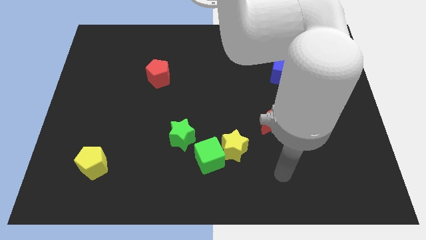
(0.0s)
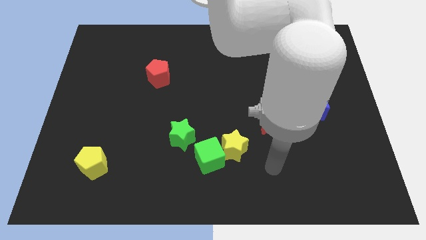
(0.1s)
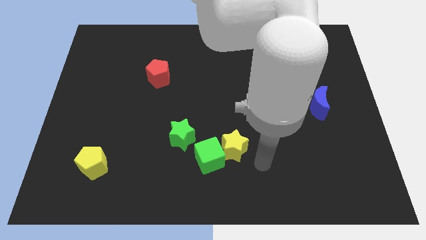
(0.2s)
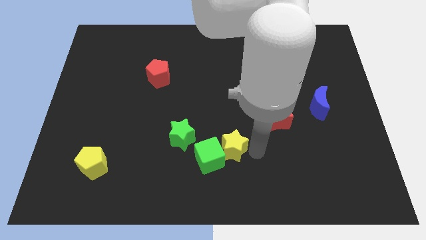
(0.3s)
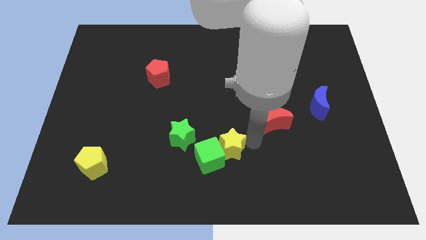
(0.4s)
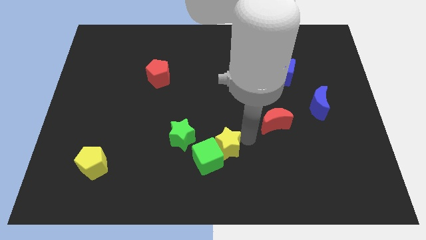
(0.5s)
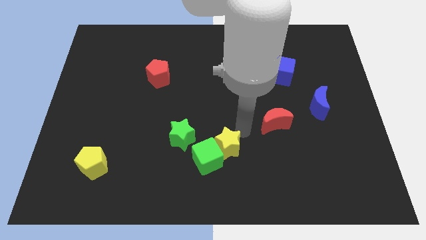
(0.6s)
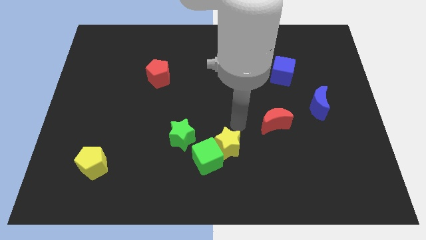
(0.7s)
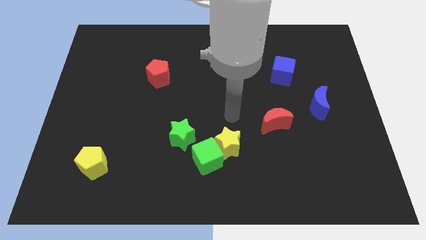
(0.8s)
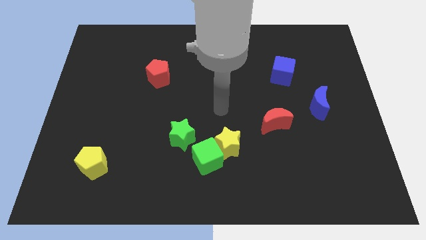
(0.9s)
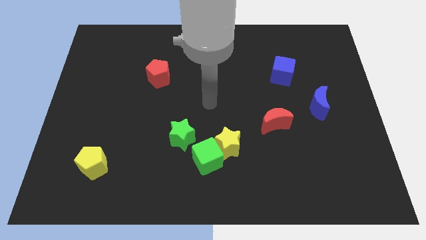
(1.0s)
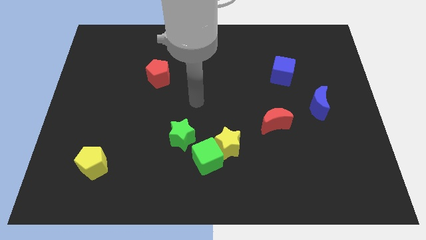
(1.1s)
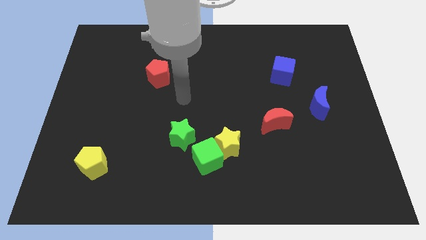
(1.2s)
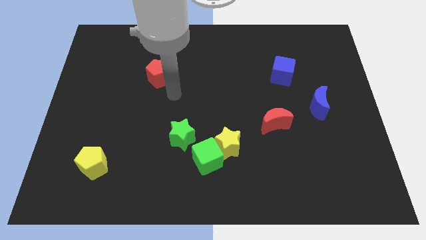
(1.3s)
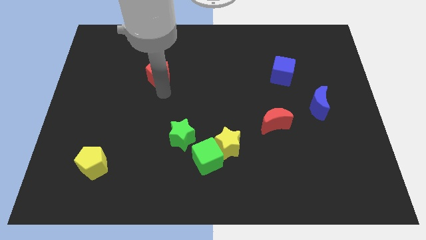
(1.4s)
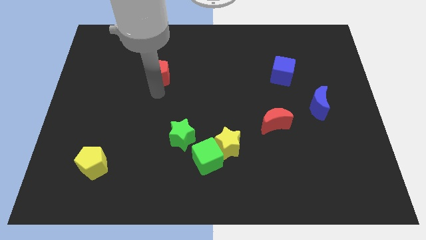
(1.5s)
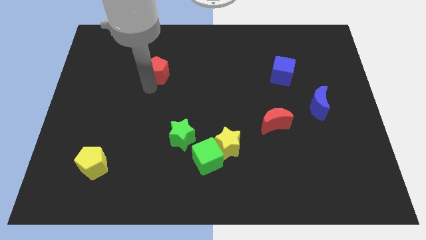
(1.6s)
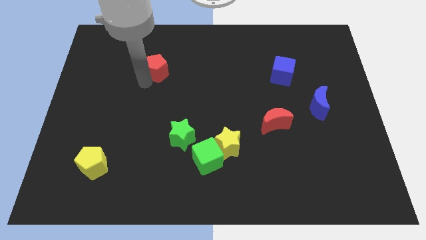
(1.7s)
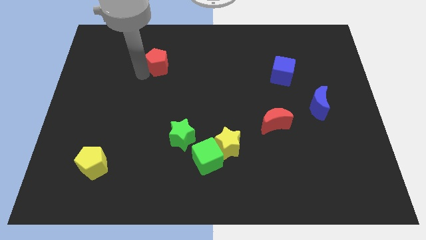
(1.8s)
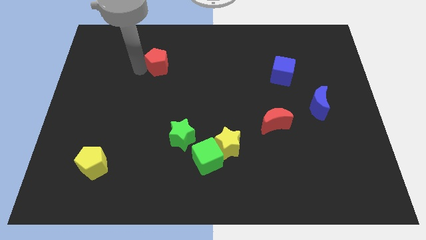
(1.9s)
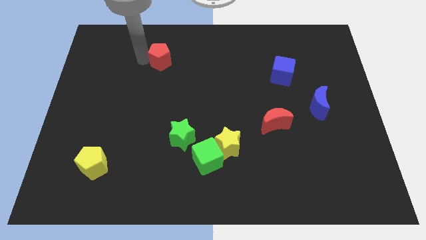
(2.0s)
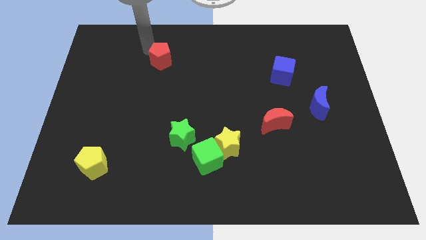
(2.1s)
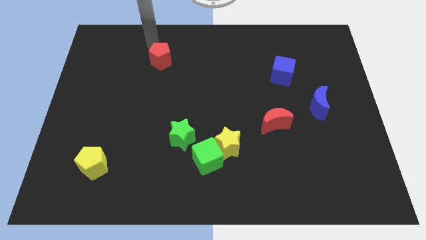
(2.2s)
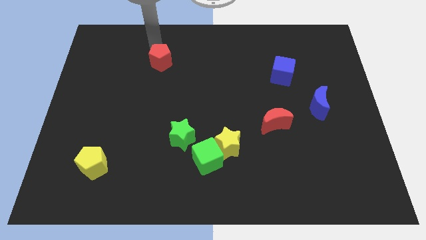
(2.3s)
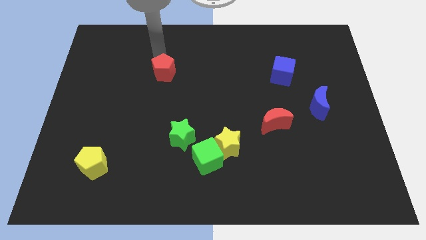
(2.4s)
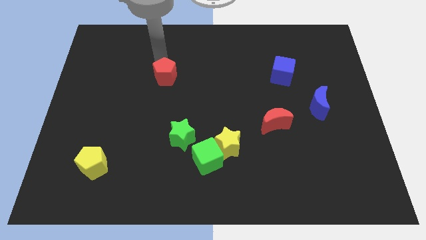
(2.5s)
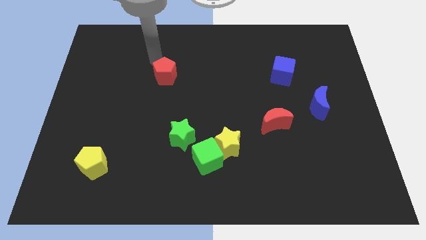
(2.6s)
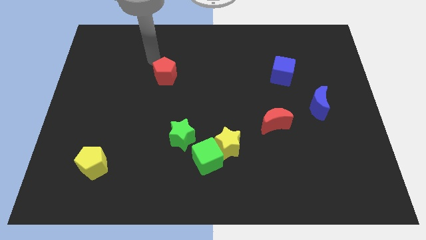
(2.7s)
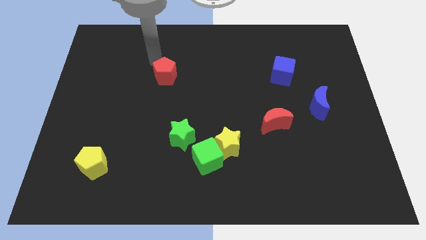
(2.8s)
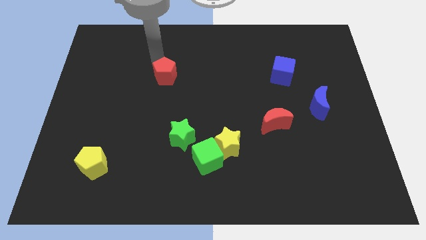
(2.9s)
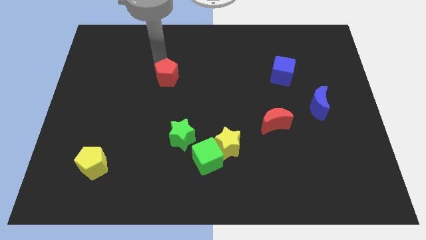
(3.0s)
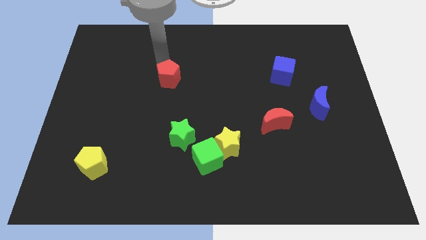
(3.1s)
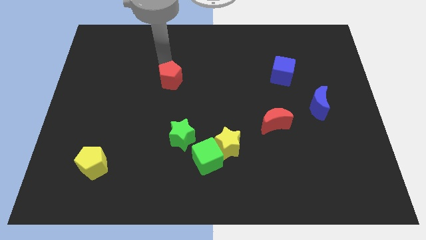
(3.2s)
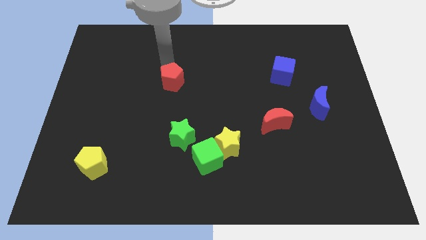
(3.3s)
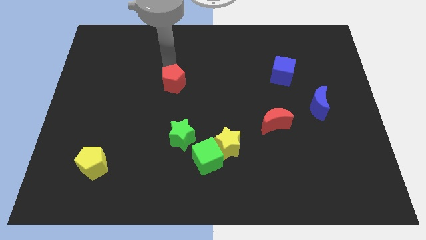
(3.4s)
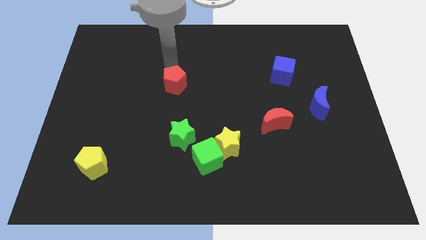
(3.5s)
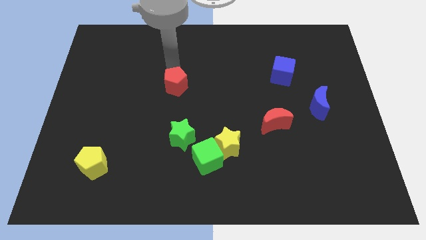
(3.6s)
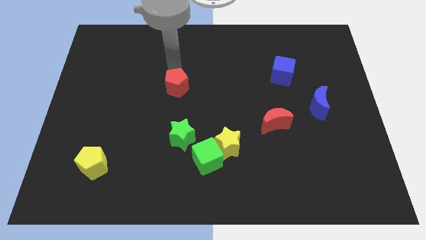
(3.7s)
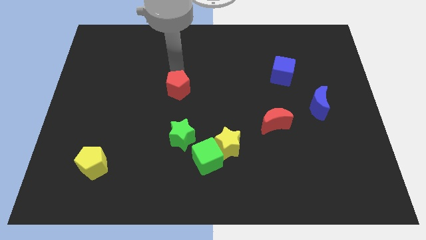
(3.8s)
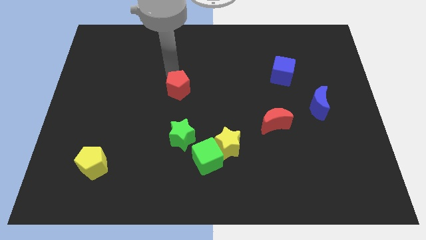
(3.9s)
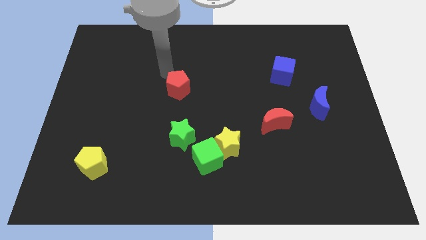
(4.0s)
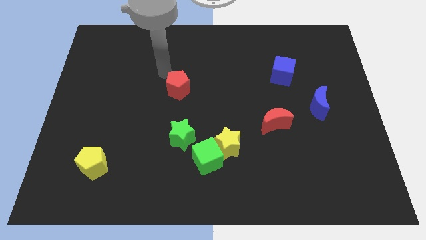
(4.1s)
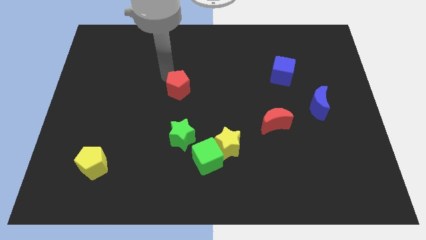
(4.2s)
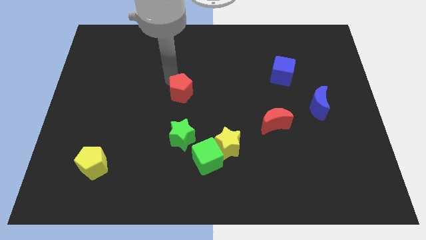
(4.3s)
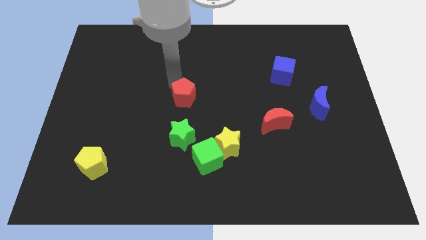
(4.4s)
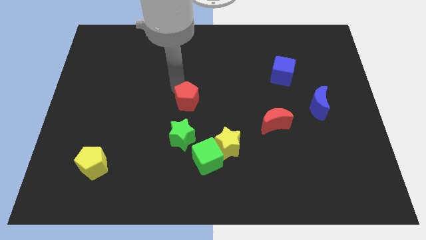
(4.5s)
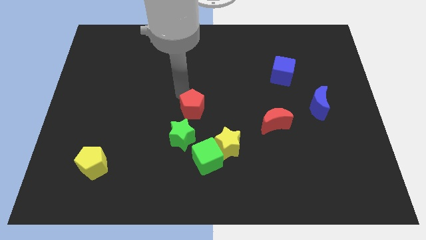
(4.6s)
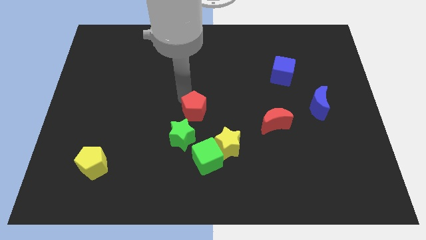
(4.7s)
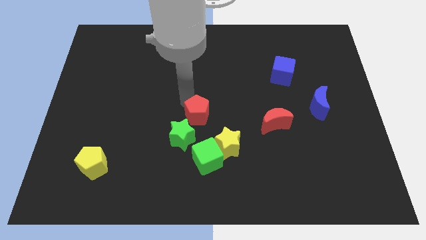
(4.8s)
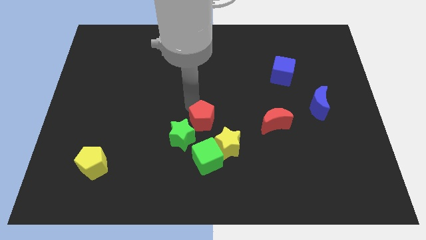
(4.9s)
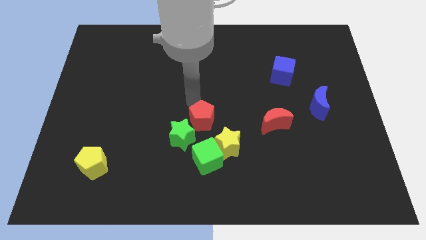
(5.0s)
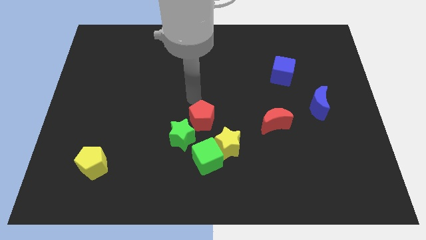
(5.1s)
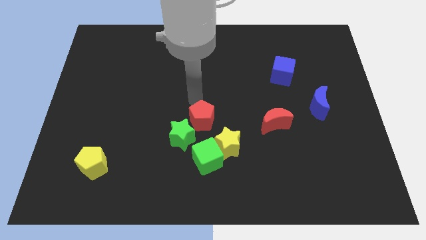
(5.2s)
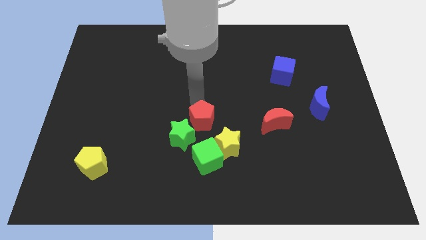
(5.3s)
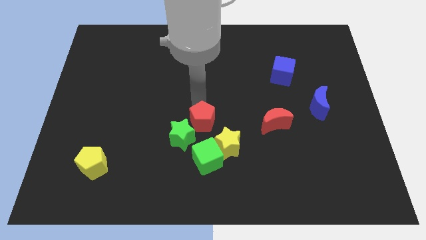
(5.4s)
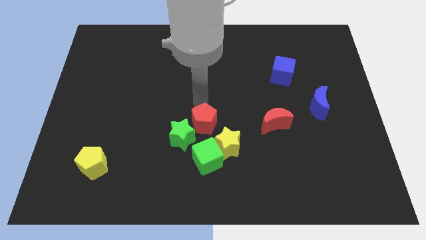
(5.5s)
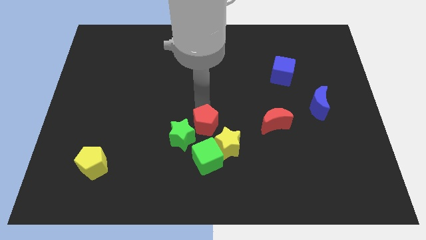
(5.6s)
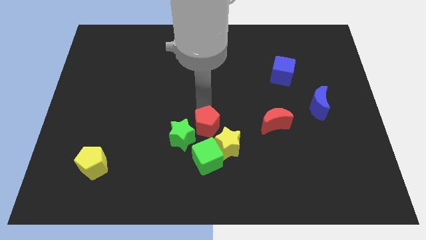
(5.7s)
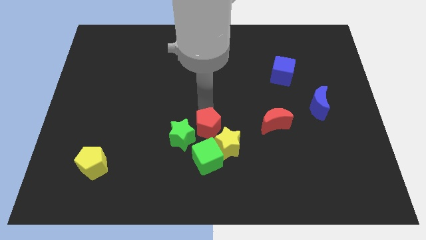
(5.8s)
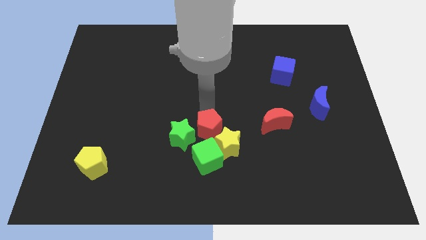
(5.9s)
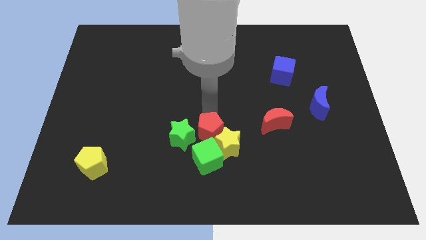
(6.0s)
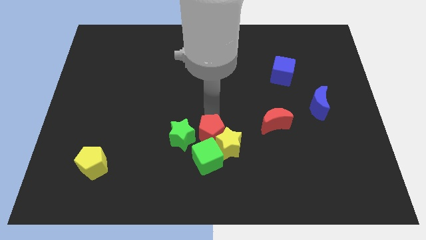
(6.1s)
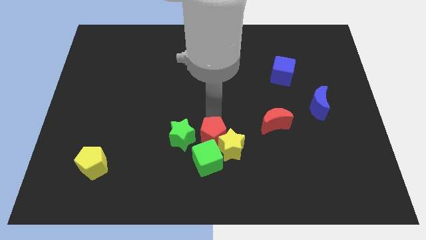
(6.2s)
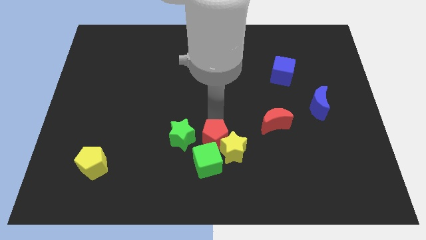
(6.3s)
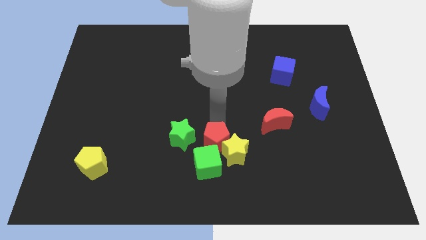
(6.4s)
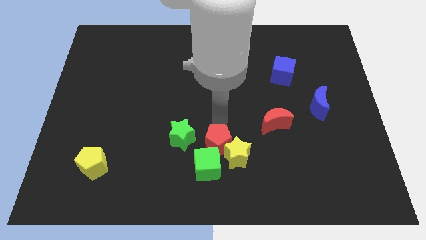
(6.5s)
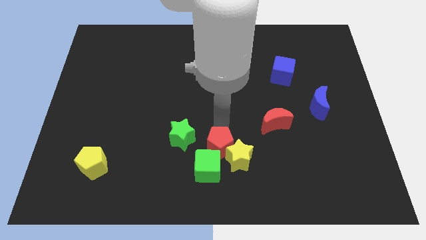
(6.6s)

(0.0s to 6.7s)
move the red pentagon to the green cube
